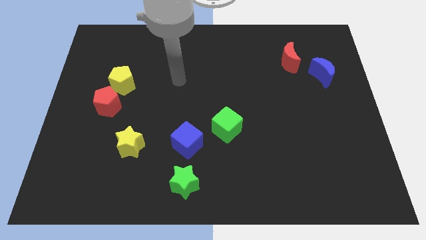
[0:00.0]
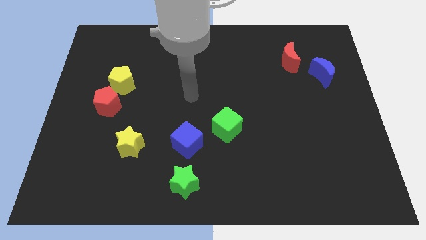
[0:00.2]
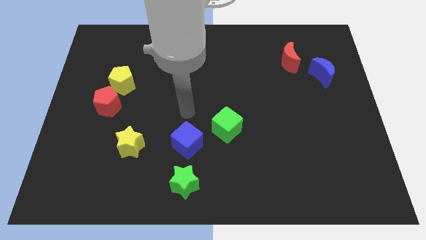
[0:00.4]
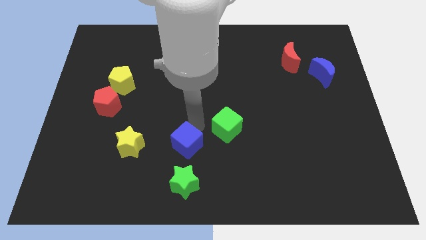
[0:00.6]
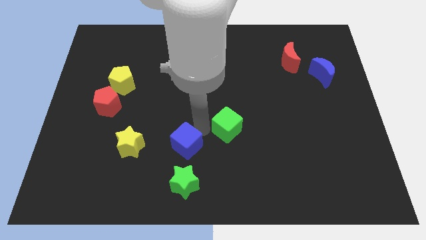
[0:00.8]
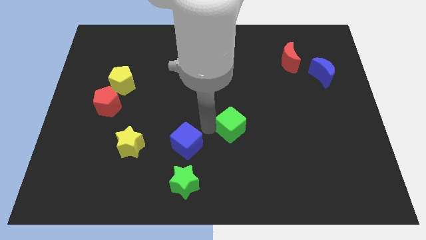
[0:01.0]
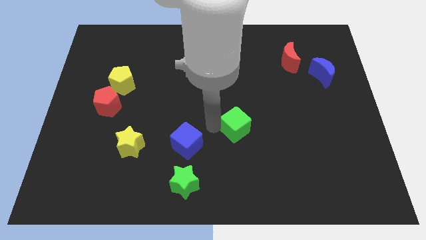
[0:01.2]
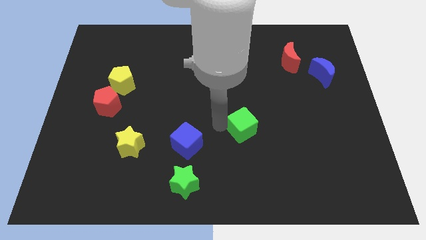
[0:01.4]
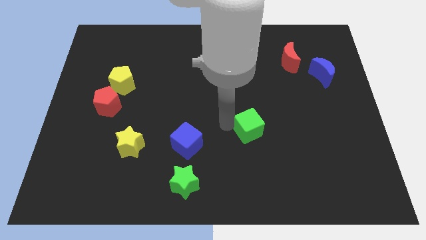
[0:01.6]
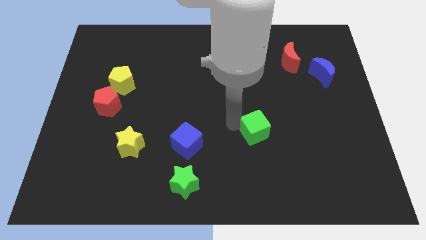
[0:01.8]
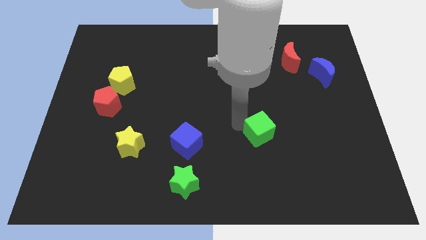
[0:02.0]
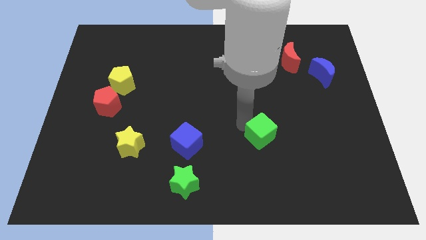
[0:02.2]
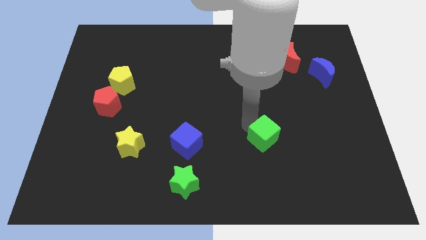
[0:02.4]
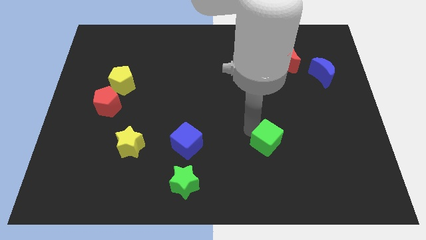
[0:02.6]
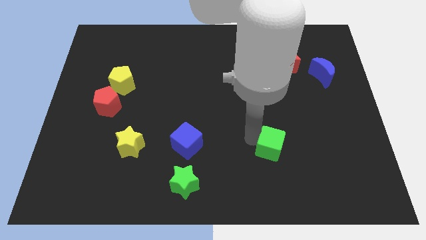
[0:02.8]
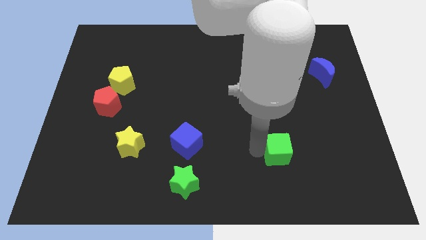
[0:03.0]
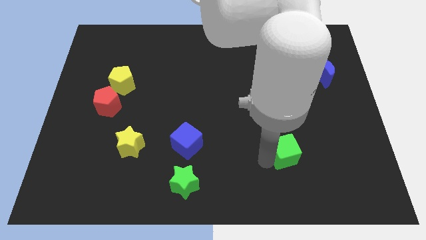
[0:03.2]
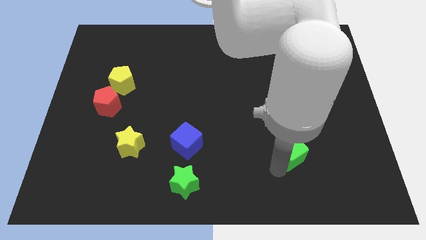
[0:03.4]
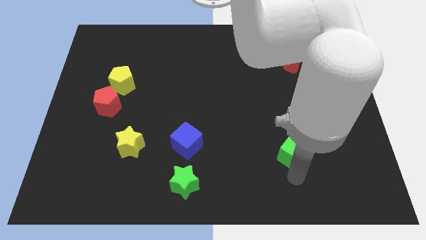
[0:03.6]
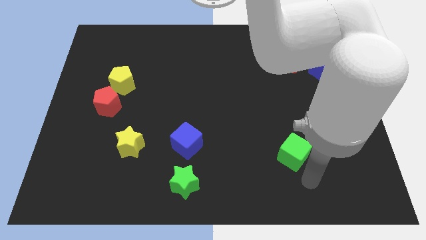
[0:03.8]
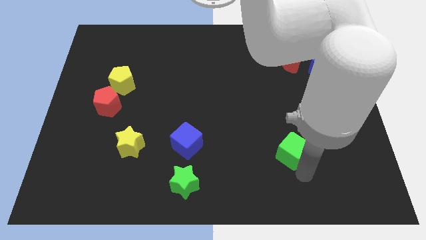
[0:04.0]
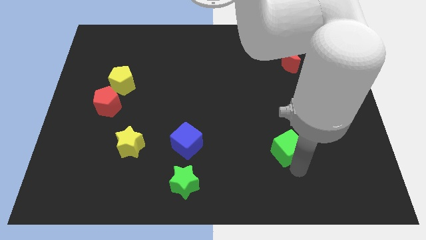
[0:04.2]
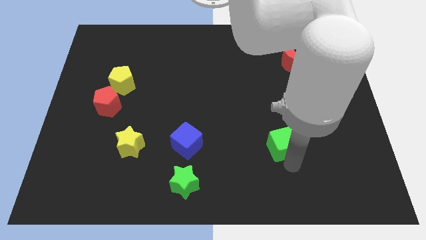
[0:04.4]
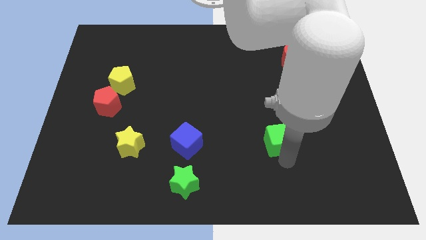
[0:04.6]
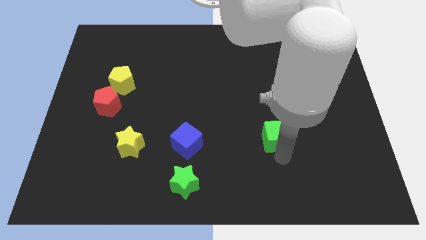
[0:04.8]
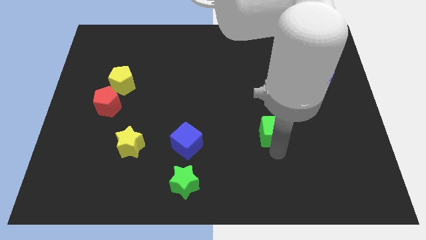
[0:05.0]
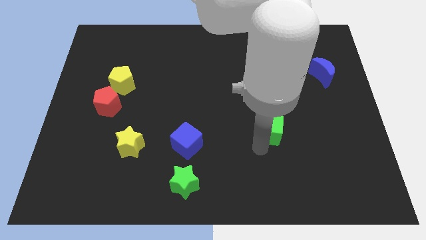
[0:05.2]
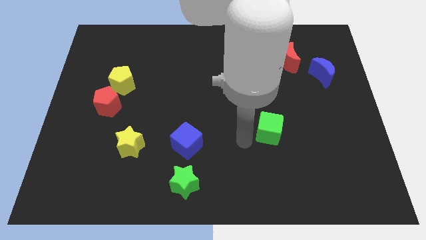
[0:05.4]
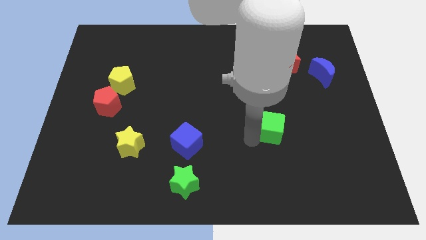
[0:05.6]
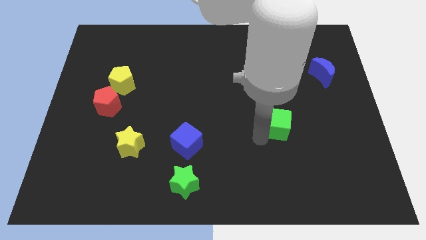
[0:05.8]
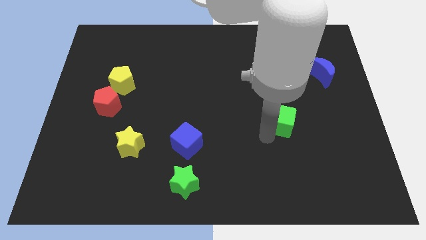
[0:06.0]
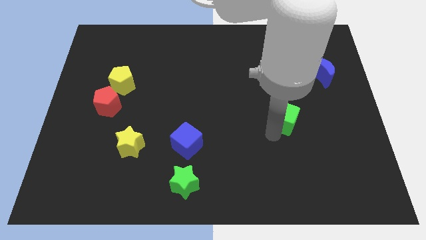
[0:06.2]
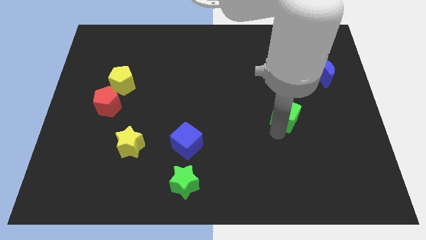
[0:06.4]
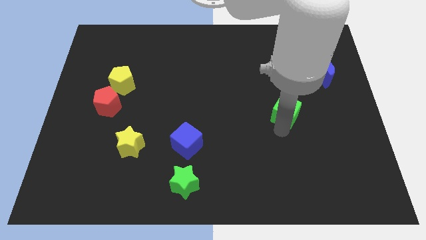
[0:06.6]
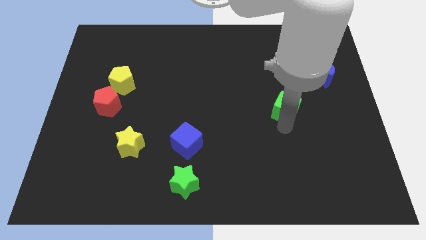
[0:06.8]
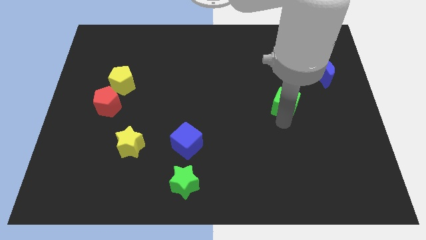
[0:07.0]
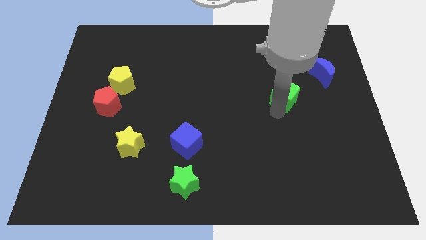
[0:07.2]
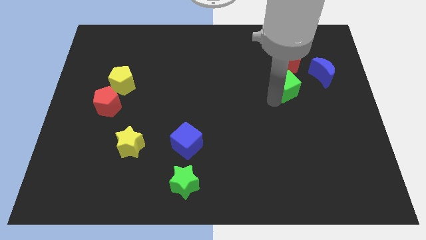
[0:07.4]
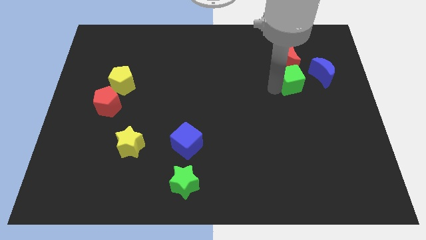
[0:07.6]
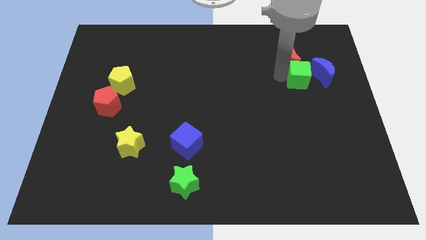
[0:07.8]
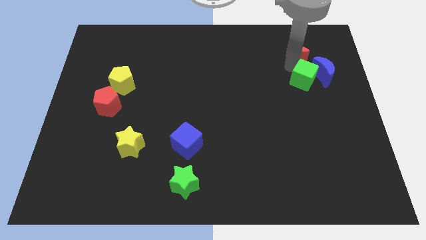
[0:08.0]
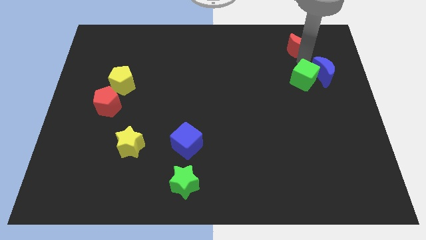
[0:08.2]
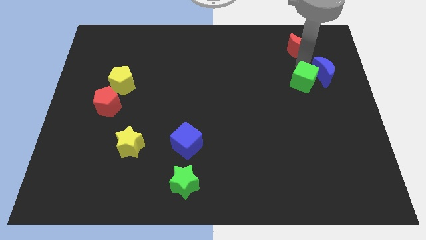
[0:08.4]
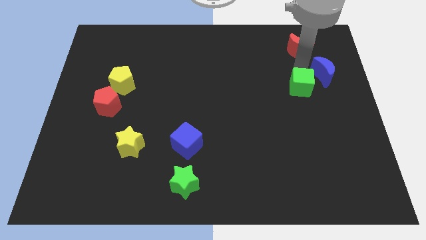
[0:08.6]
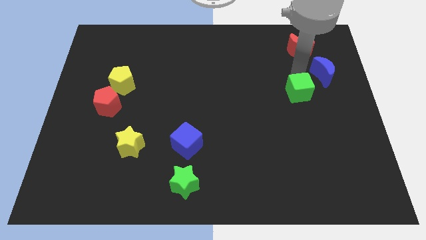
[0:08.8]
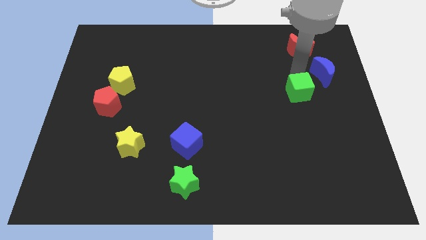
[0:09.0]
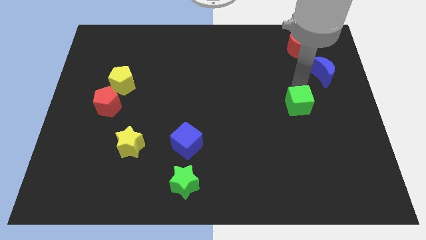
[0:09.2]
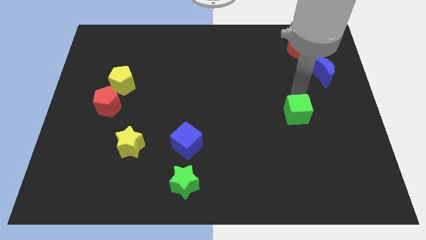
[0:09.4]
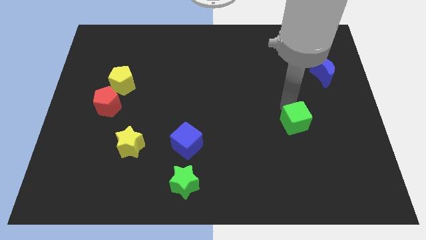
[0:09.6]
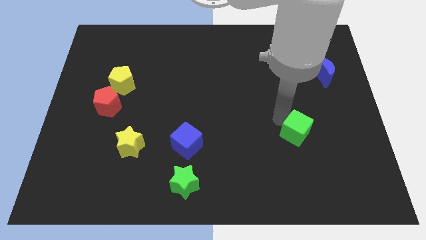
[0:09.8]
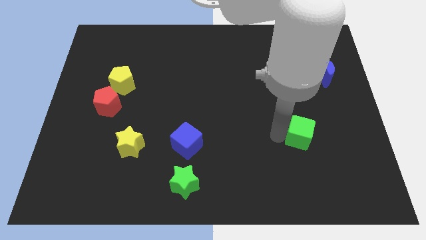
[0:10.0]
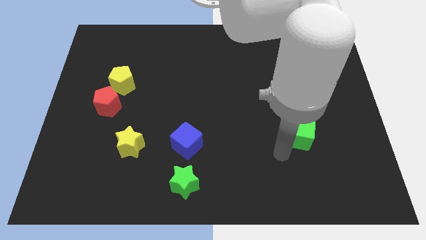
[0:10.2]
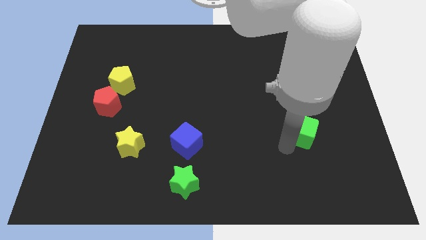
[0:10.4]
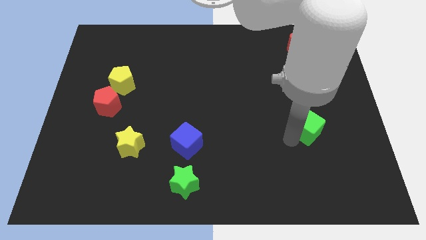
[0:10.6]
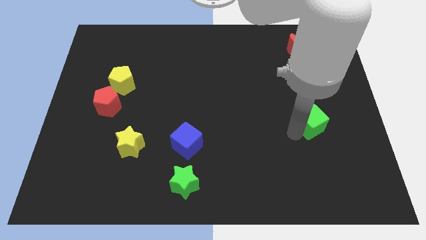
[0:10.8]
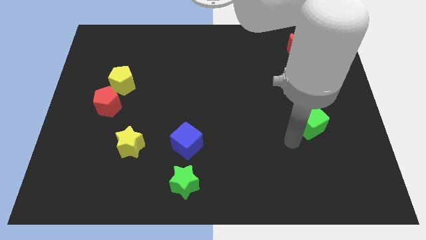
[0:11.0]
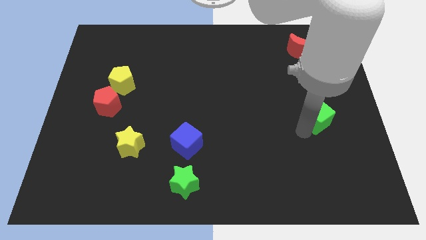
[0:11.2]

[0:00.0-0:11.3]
slide the green cube to the bottom of the blue moon
